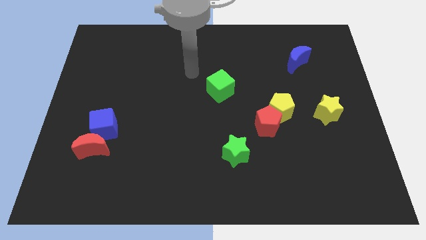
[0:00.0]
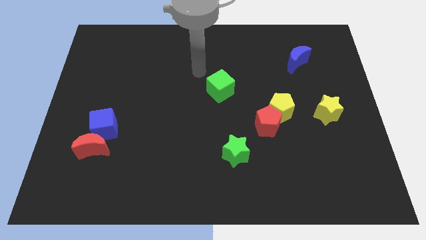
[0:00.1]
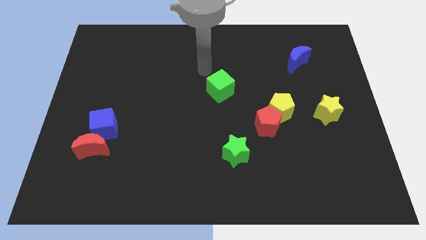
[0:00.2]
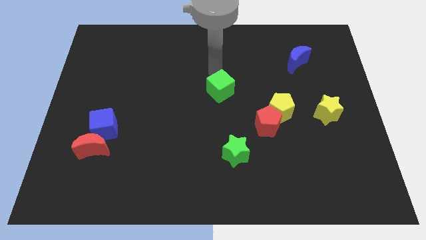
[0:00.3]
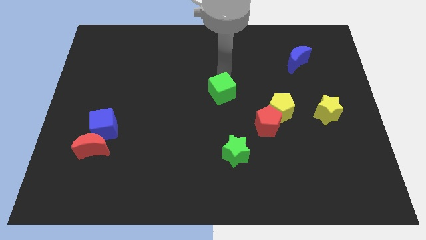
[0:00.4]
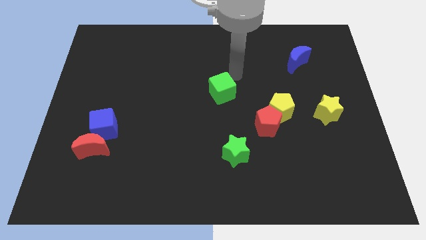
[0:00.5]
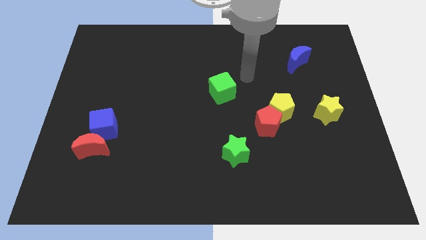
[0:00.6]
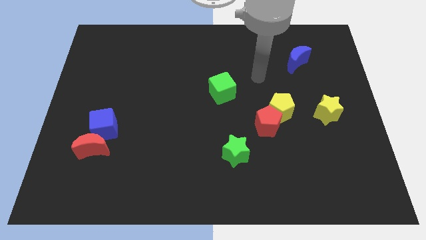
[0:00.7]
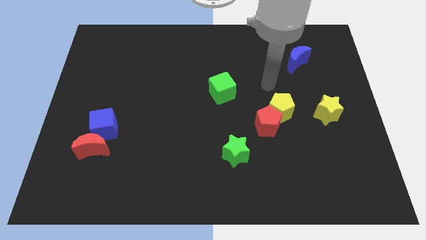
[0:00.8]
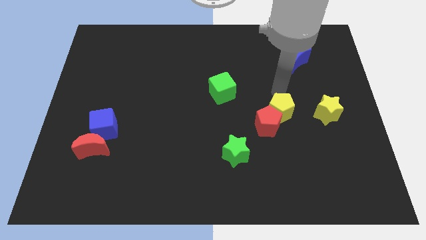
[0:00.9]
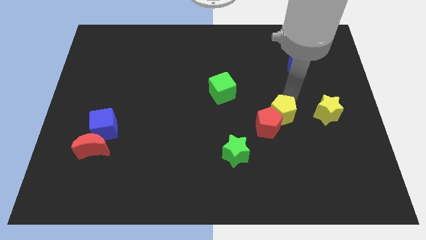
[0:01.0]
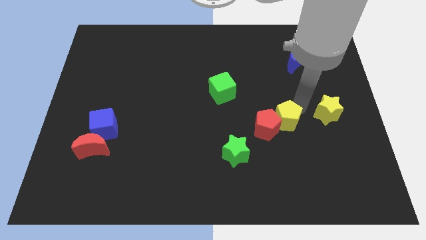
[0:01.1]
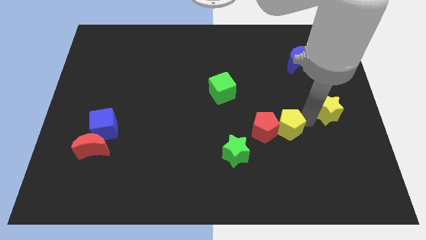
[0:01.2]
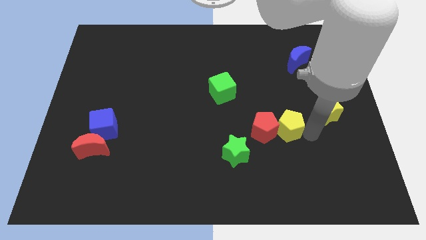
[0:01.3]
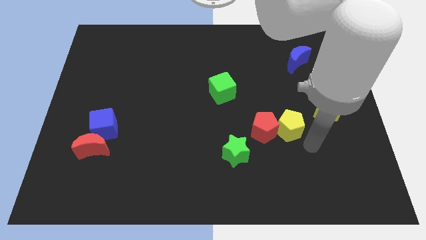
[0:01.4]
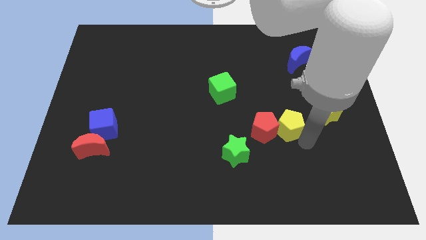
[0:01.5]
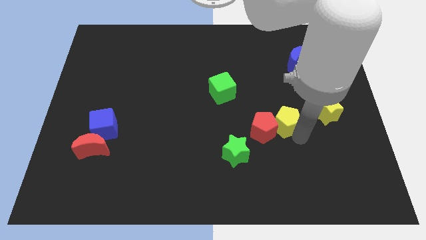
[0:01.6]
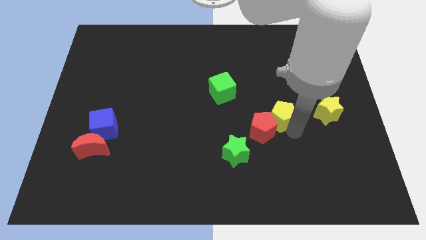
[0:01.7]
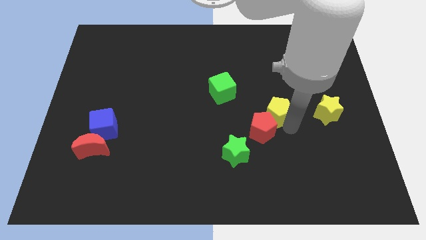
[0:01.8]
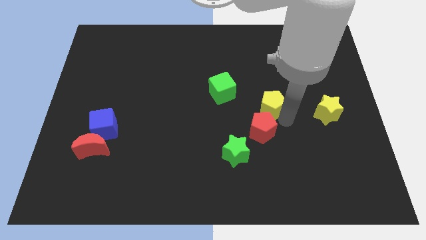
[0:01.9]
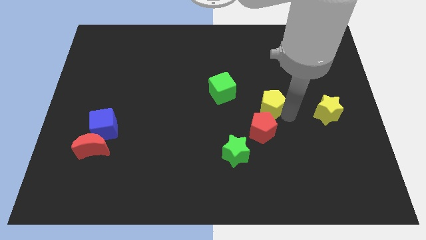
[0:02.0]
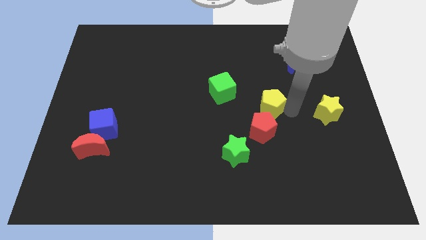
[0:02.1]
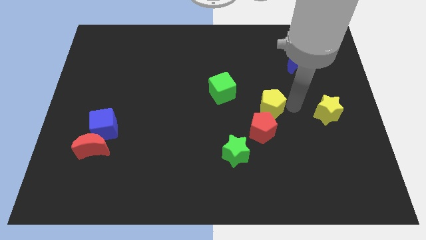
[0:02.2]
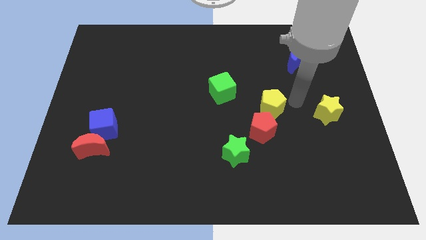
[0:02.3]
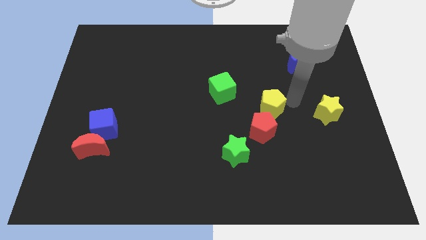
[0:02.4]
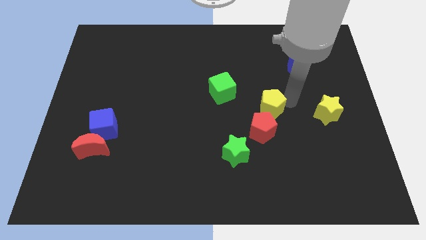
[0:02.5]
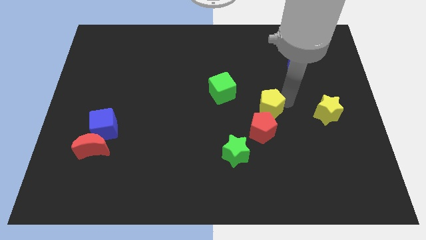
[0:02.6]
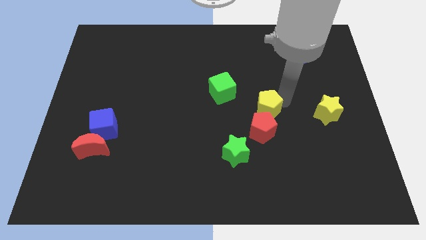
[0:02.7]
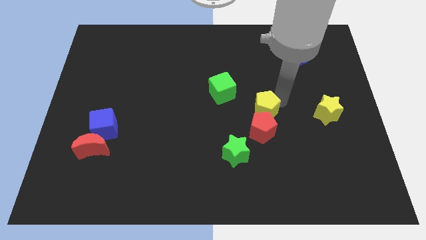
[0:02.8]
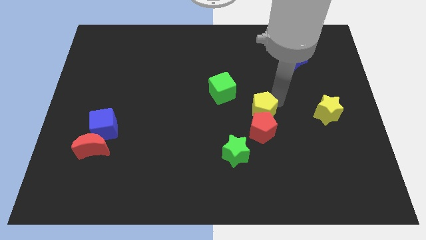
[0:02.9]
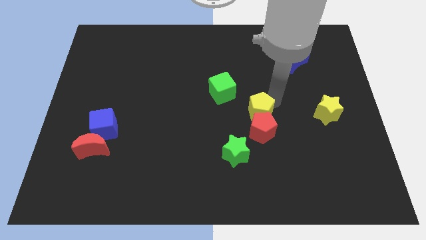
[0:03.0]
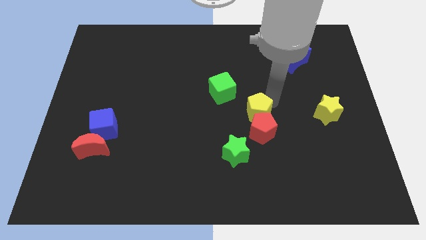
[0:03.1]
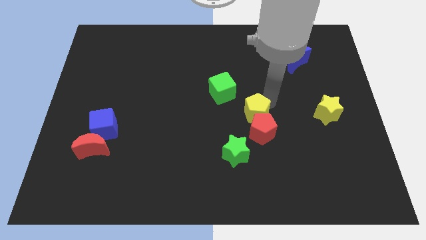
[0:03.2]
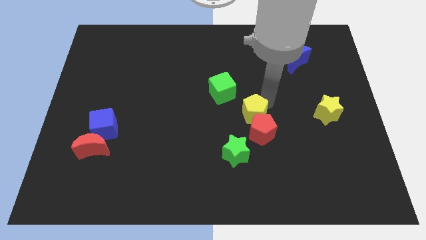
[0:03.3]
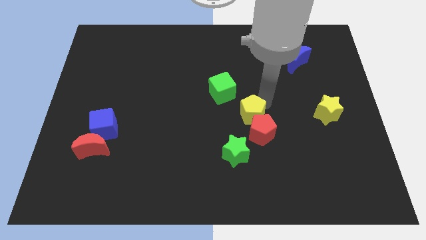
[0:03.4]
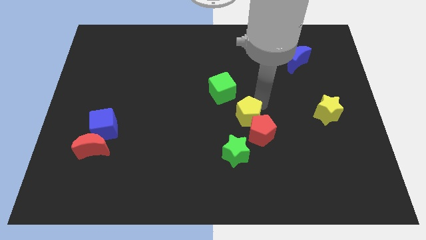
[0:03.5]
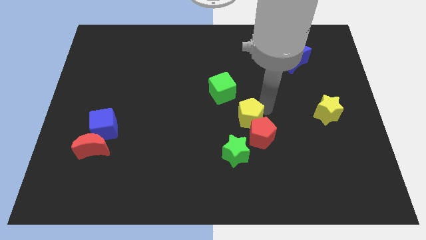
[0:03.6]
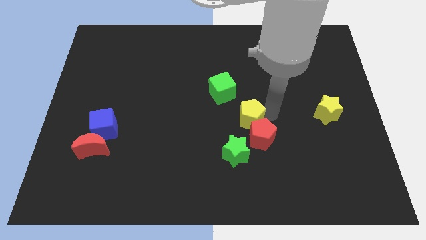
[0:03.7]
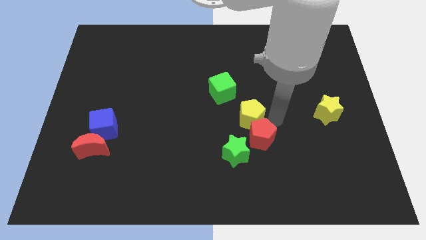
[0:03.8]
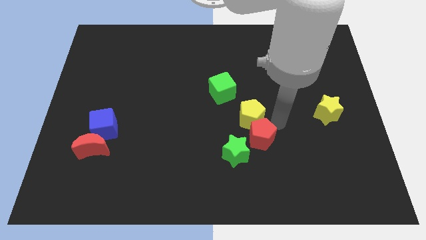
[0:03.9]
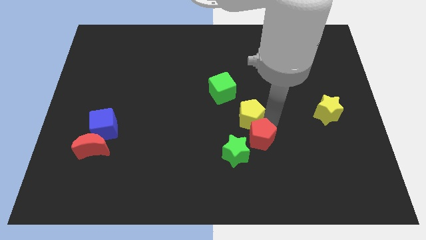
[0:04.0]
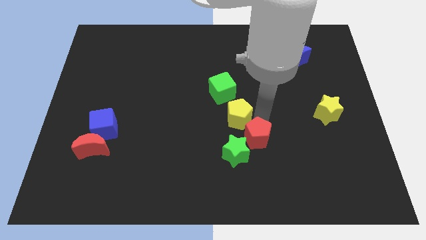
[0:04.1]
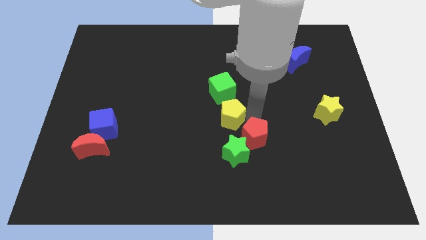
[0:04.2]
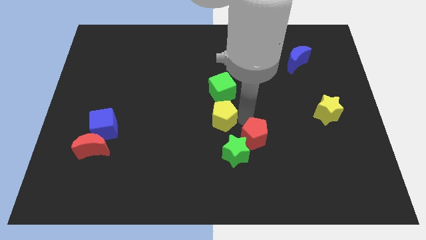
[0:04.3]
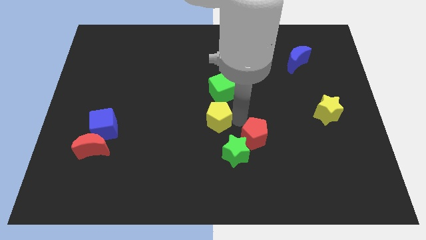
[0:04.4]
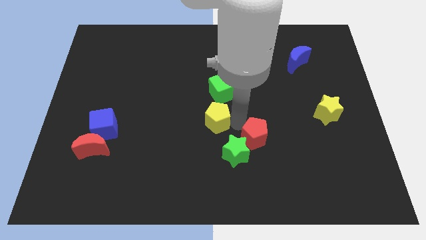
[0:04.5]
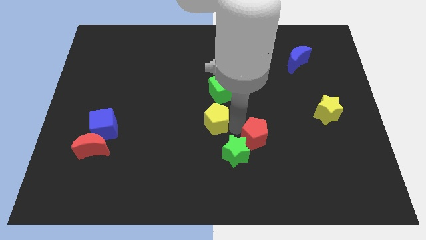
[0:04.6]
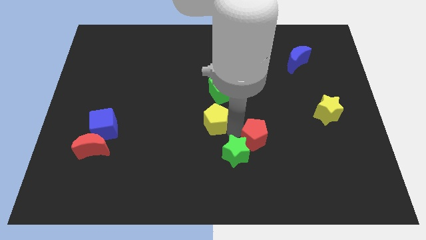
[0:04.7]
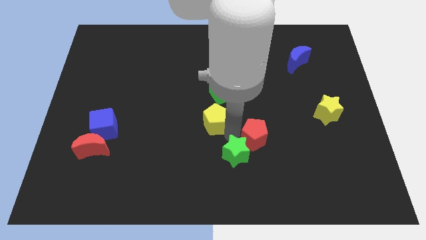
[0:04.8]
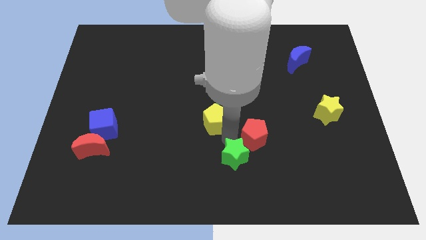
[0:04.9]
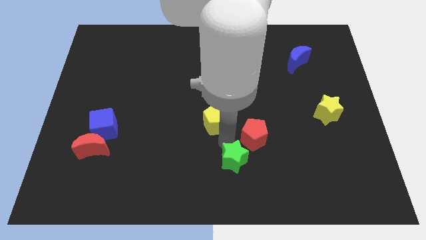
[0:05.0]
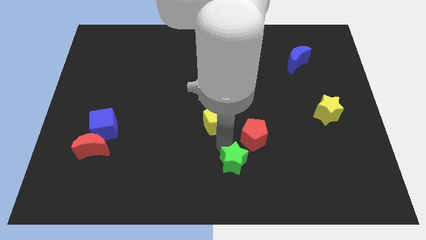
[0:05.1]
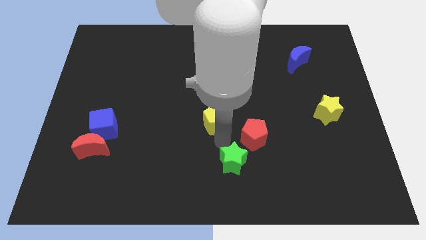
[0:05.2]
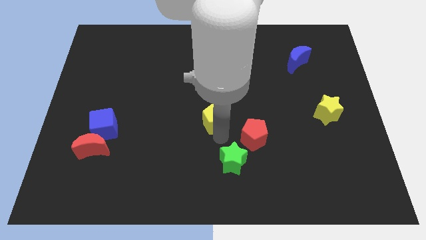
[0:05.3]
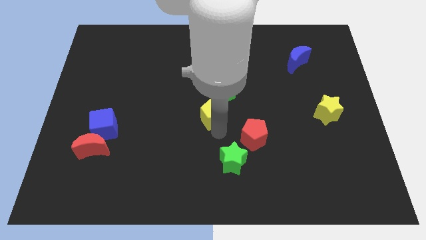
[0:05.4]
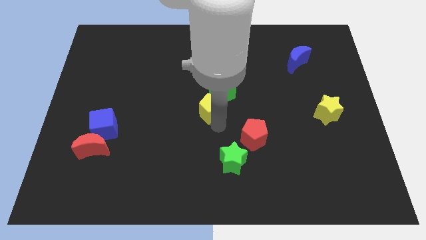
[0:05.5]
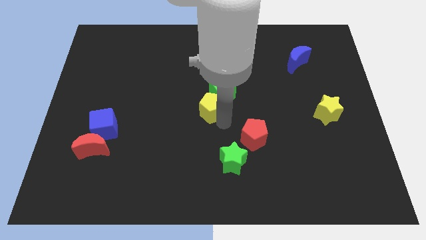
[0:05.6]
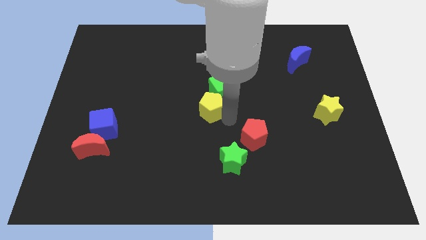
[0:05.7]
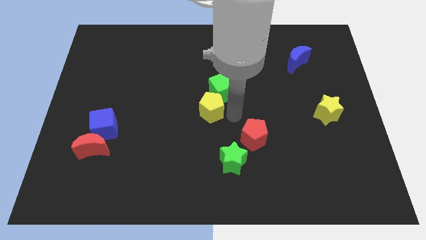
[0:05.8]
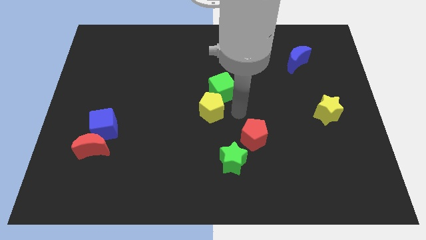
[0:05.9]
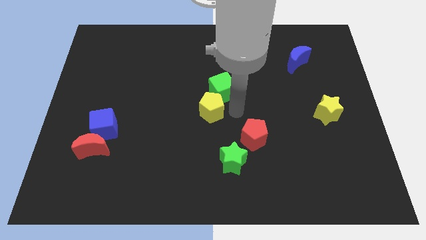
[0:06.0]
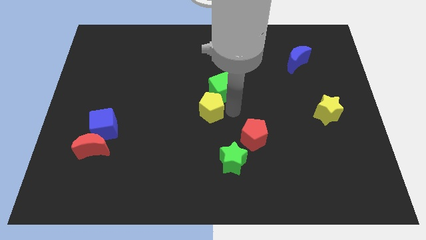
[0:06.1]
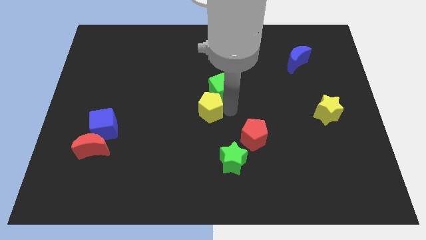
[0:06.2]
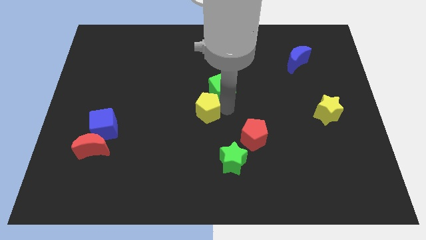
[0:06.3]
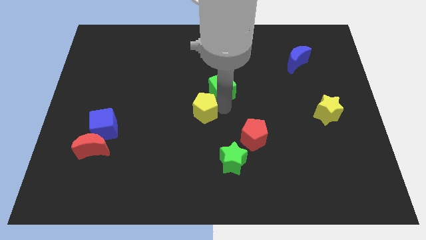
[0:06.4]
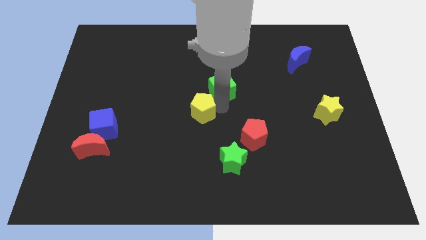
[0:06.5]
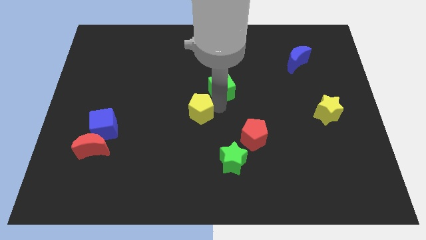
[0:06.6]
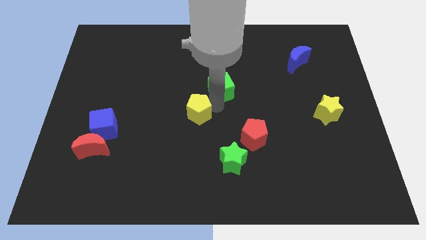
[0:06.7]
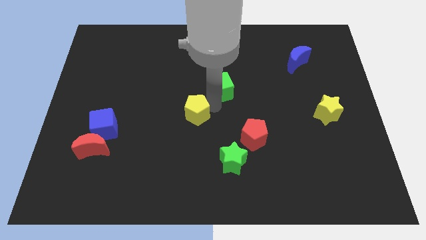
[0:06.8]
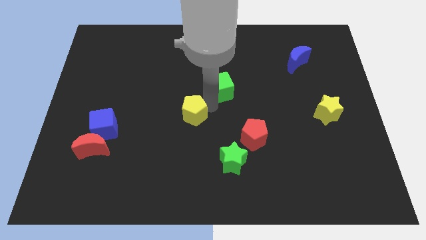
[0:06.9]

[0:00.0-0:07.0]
push the yellow pentagon to the left

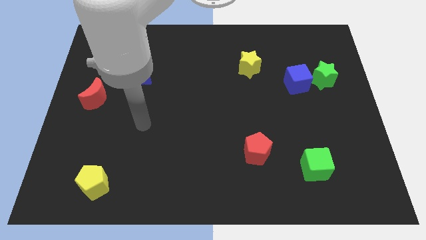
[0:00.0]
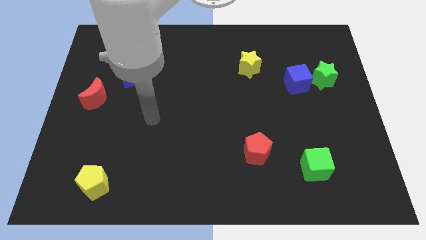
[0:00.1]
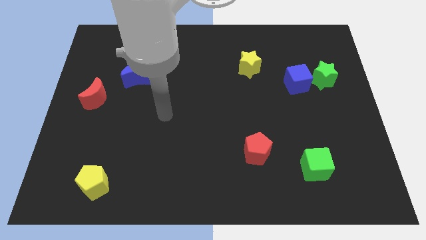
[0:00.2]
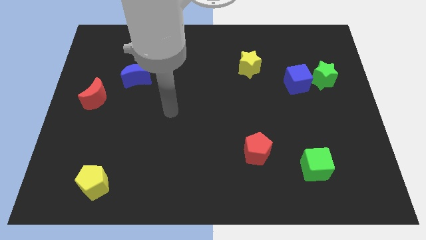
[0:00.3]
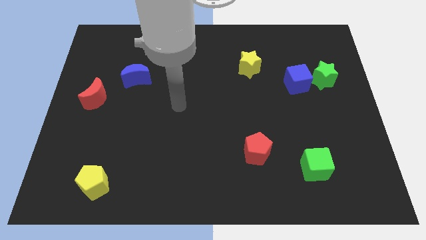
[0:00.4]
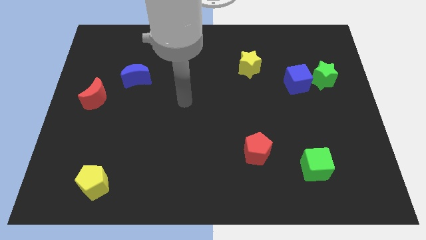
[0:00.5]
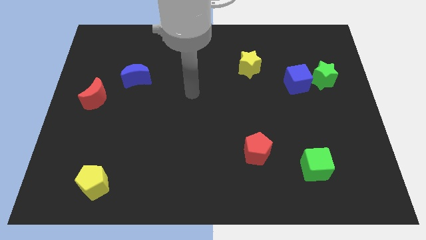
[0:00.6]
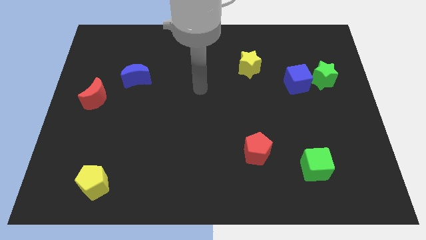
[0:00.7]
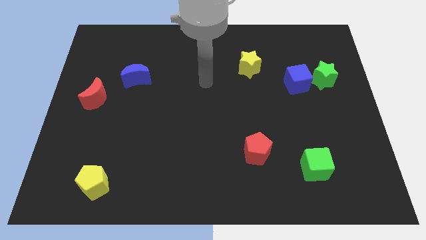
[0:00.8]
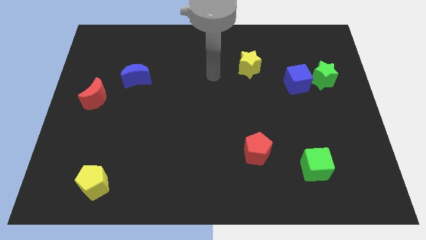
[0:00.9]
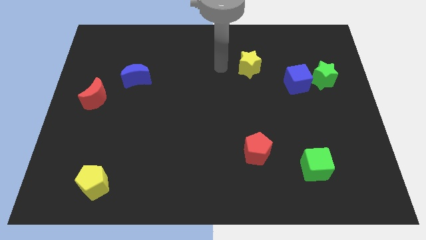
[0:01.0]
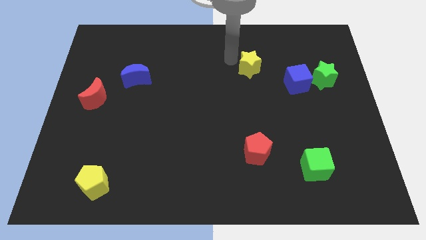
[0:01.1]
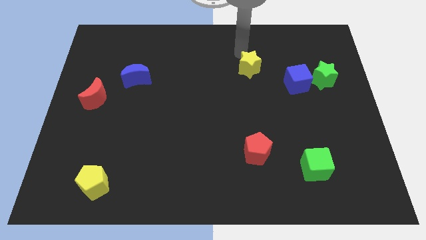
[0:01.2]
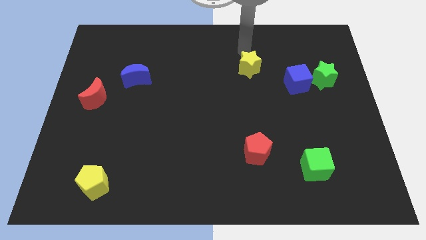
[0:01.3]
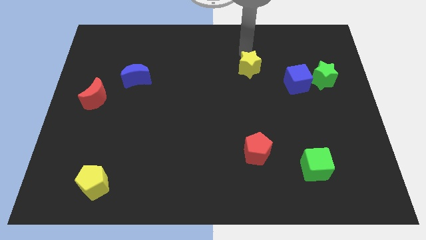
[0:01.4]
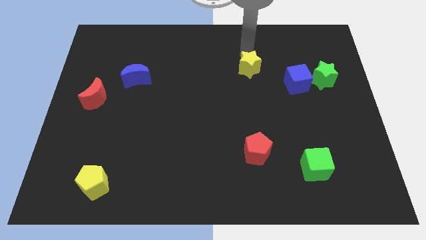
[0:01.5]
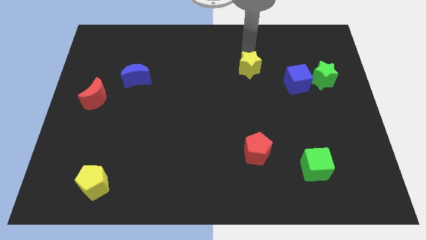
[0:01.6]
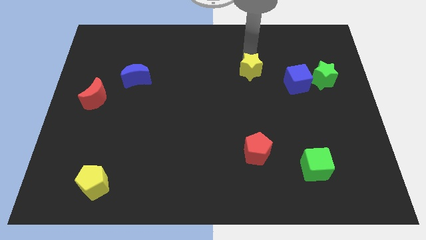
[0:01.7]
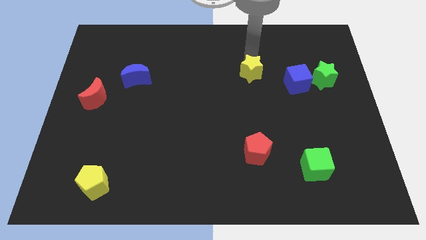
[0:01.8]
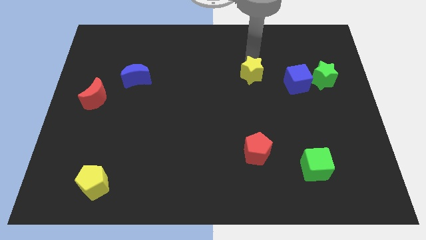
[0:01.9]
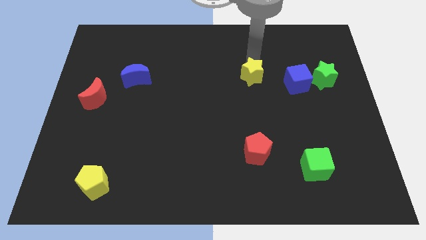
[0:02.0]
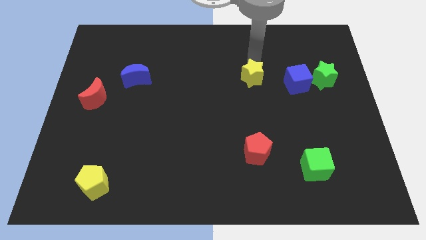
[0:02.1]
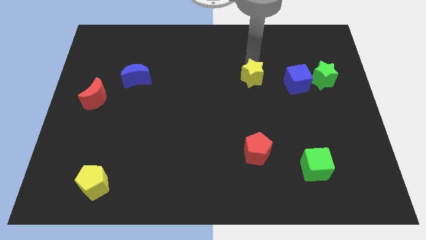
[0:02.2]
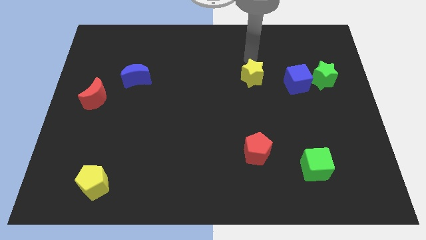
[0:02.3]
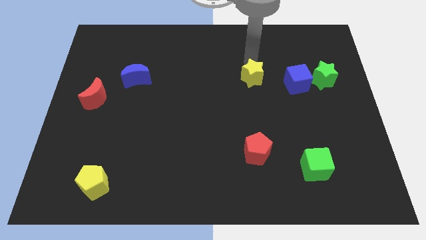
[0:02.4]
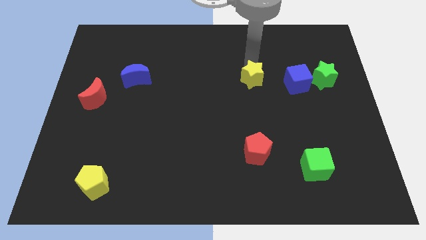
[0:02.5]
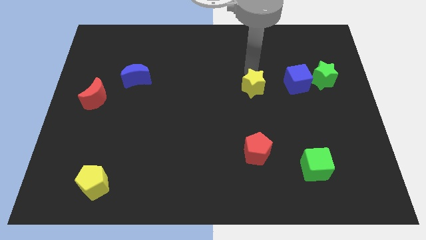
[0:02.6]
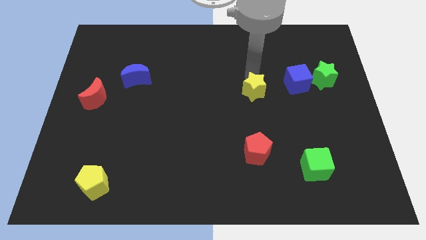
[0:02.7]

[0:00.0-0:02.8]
slide the yellow star downwards somewhat
